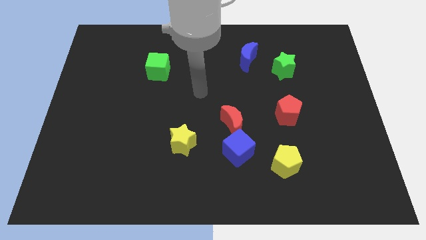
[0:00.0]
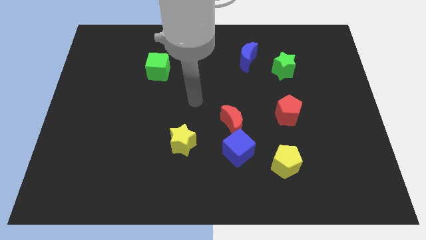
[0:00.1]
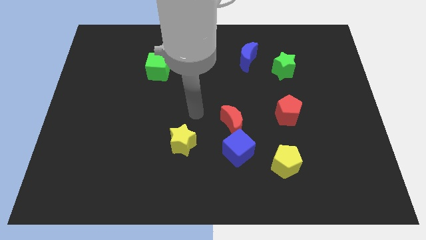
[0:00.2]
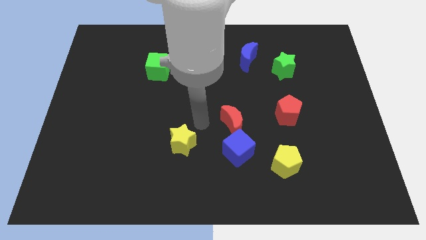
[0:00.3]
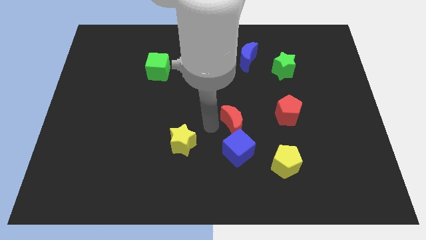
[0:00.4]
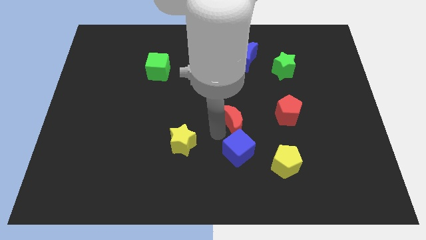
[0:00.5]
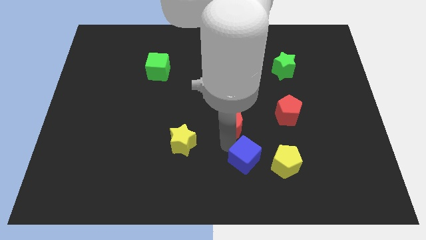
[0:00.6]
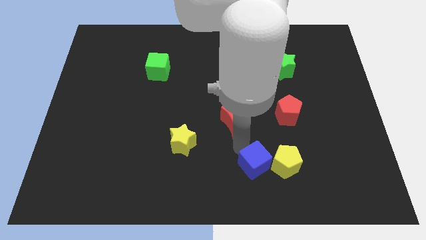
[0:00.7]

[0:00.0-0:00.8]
separate the red moon from the blue cube

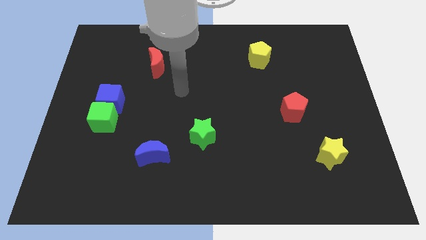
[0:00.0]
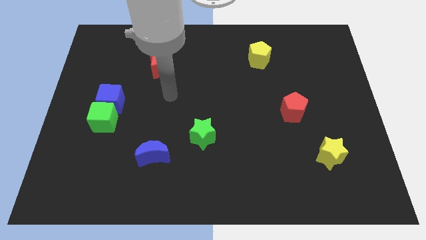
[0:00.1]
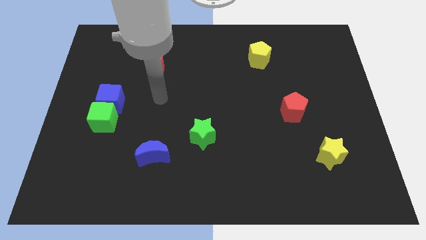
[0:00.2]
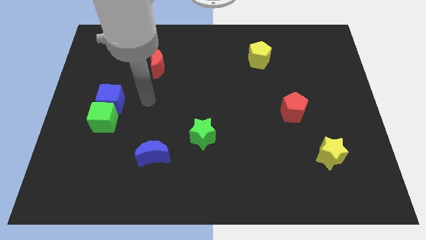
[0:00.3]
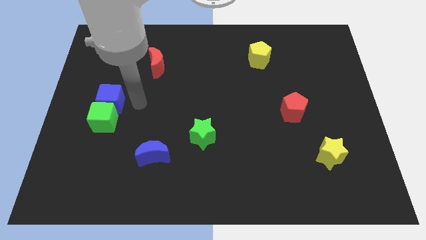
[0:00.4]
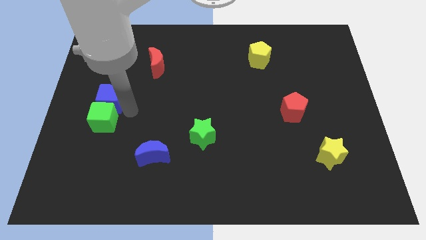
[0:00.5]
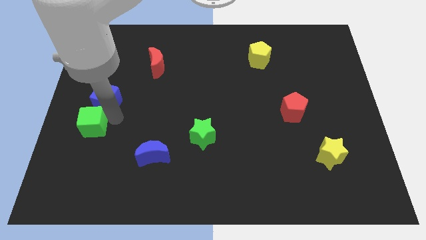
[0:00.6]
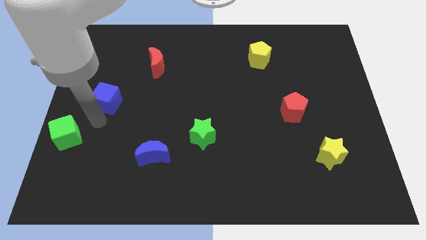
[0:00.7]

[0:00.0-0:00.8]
move the blue cube away from the green cube

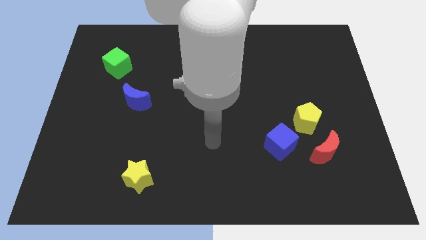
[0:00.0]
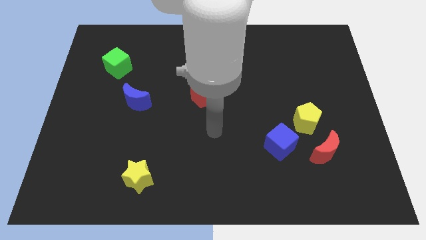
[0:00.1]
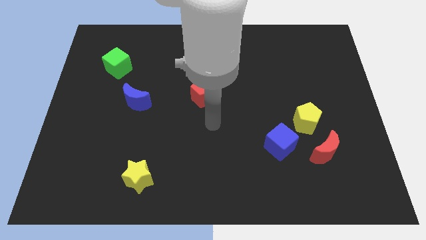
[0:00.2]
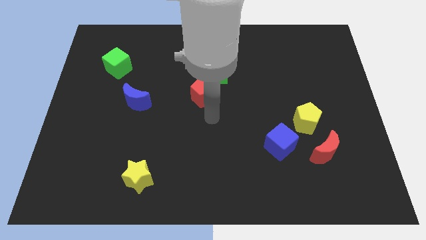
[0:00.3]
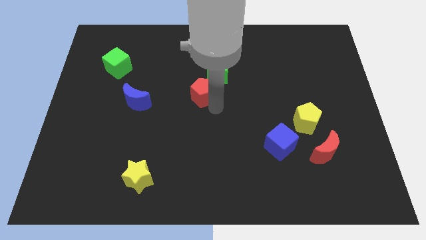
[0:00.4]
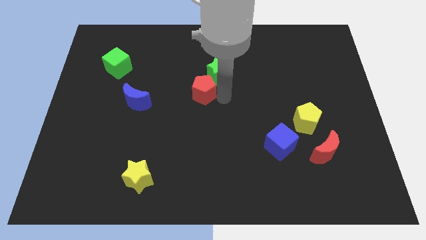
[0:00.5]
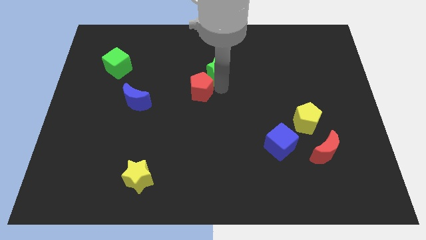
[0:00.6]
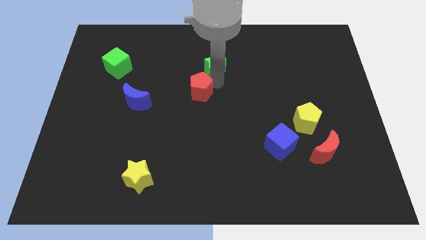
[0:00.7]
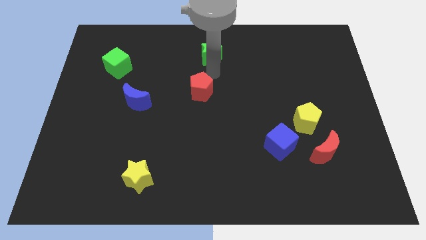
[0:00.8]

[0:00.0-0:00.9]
separate the red pentagon from the green star

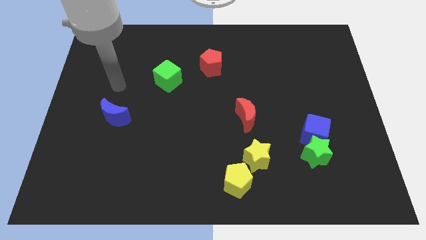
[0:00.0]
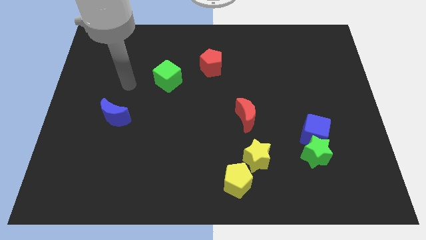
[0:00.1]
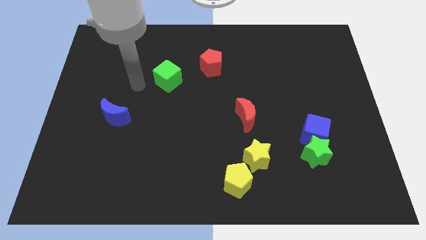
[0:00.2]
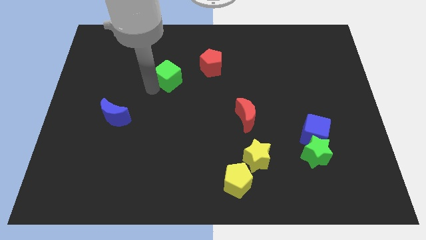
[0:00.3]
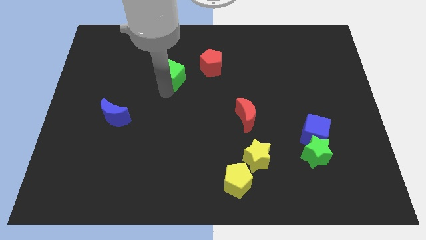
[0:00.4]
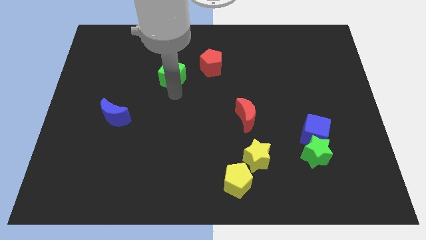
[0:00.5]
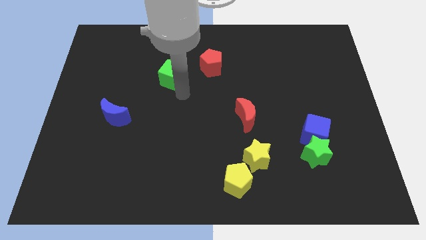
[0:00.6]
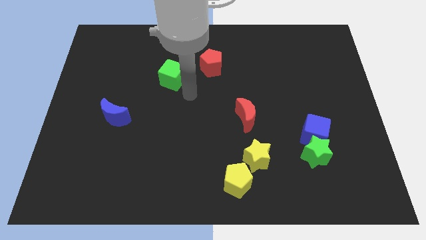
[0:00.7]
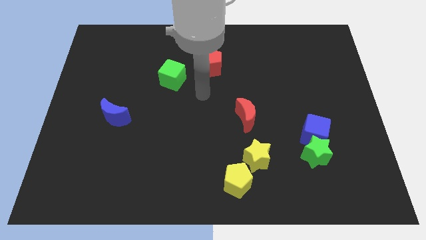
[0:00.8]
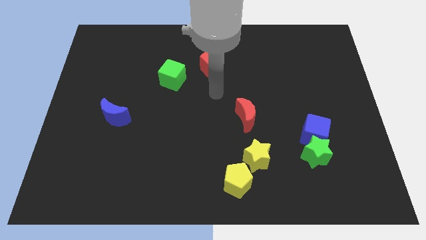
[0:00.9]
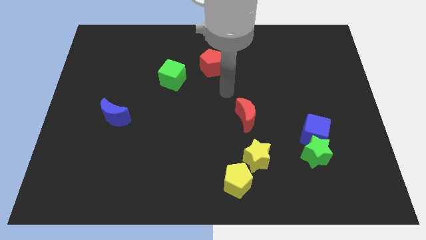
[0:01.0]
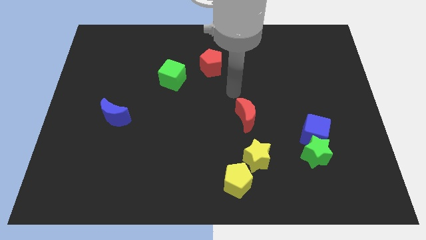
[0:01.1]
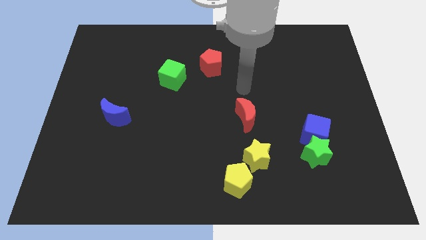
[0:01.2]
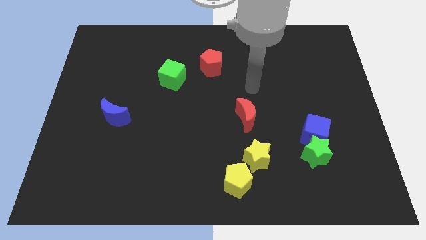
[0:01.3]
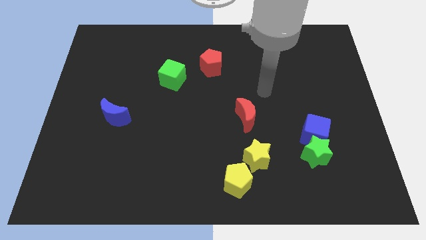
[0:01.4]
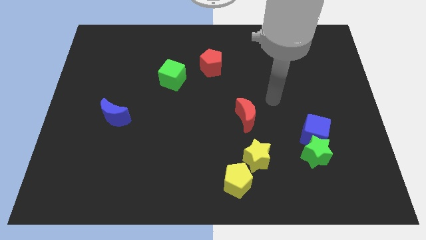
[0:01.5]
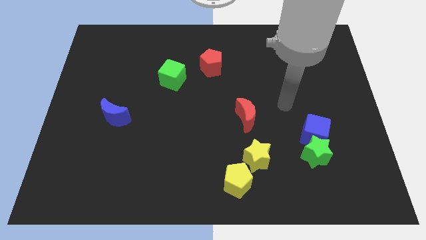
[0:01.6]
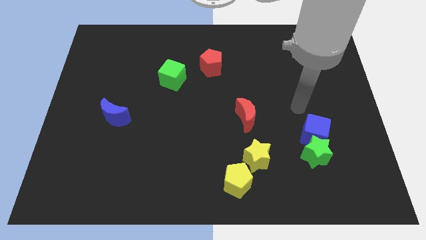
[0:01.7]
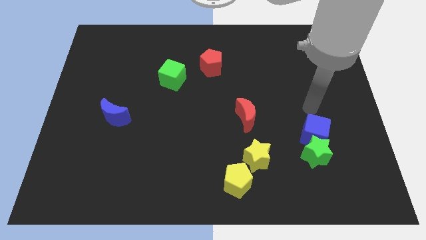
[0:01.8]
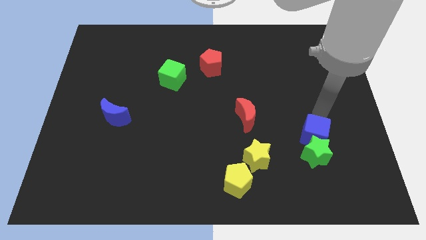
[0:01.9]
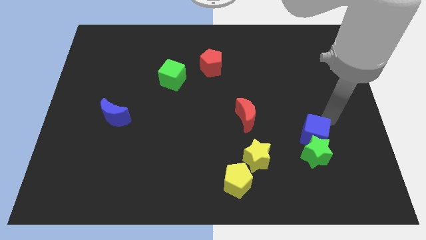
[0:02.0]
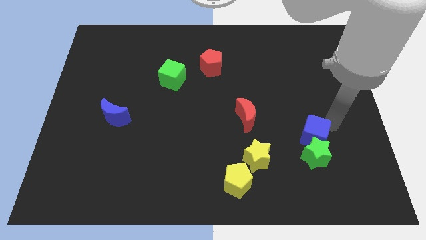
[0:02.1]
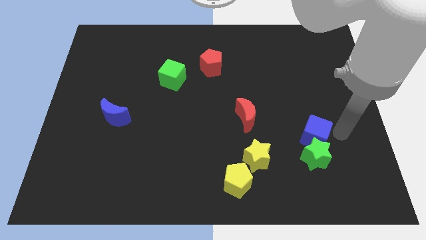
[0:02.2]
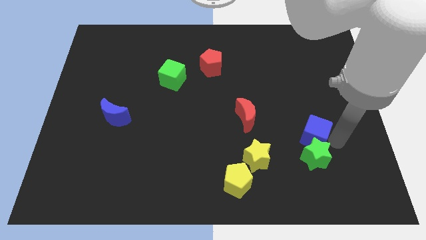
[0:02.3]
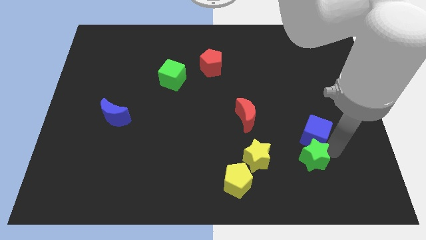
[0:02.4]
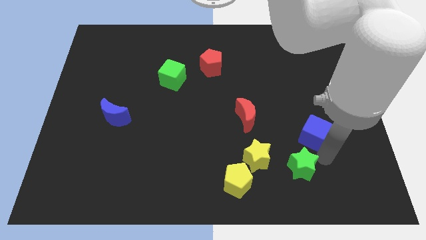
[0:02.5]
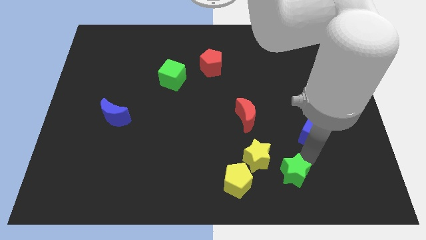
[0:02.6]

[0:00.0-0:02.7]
pull the blue cube apart from the green star

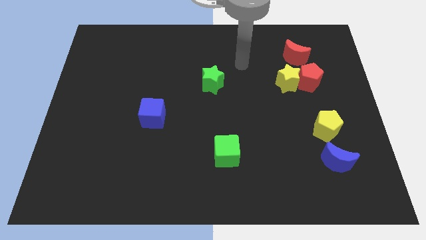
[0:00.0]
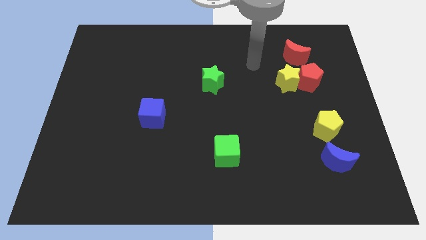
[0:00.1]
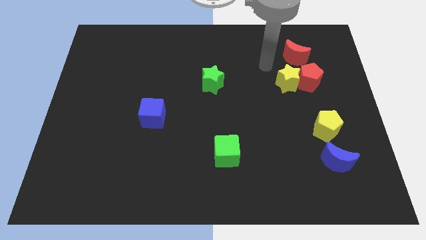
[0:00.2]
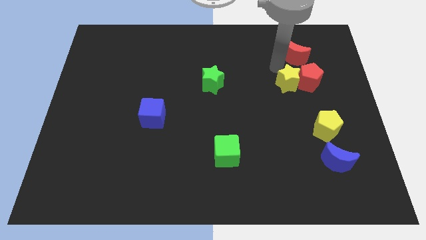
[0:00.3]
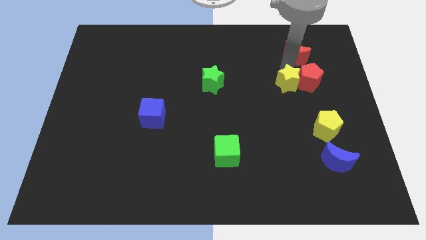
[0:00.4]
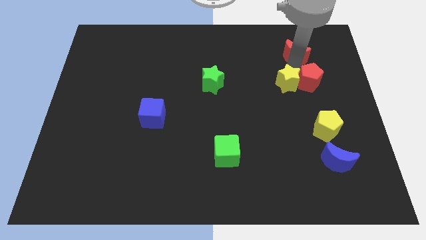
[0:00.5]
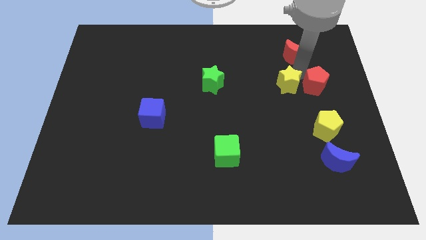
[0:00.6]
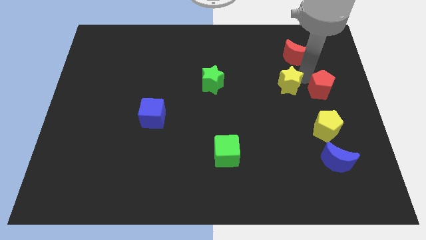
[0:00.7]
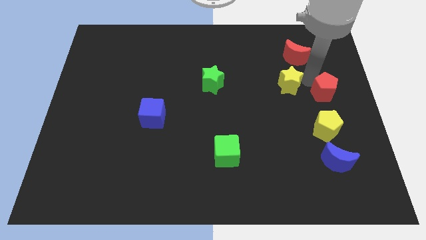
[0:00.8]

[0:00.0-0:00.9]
pull the red pentagon apart from the yellow star and red moon

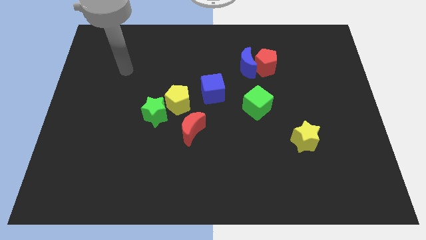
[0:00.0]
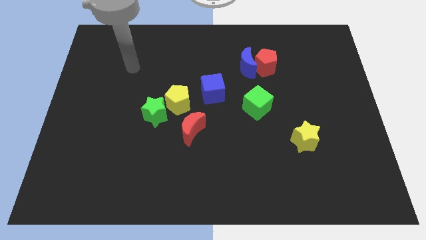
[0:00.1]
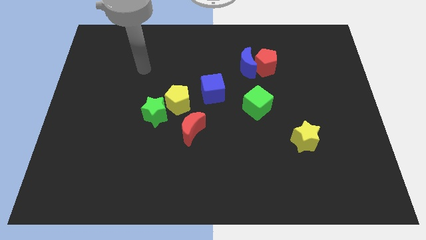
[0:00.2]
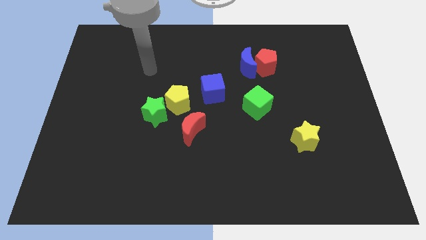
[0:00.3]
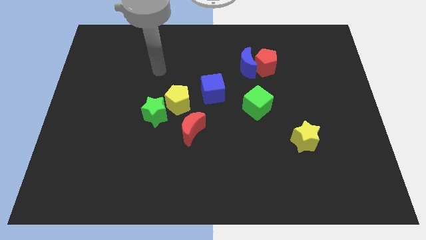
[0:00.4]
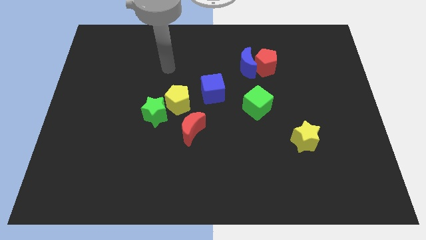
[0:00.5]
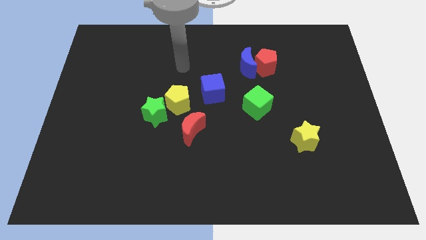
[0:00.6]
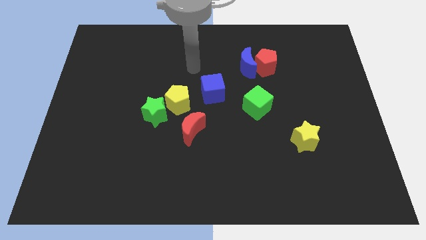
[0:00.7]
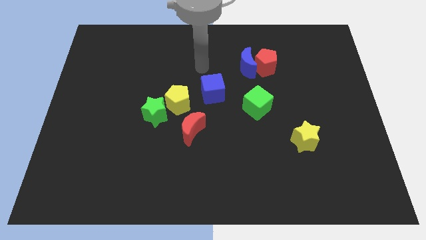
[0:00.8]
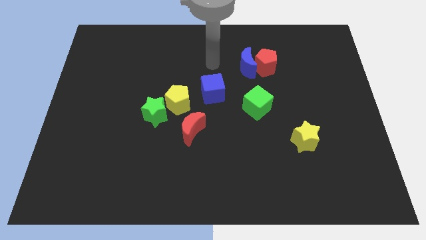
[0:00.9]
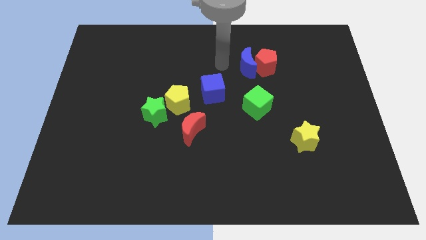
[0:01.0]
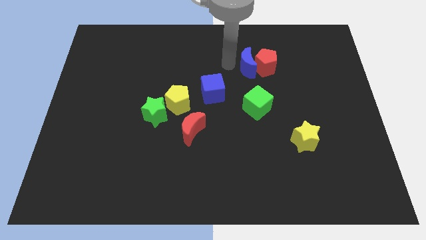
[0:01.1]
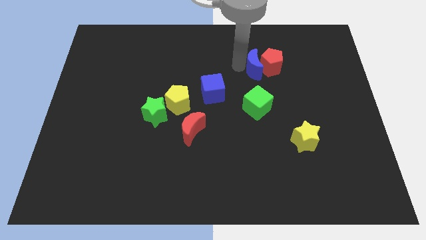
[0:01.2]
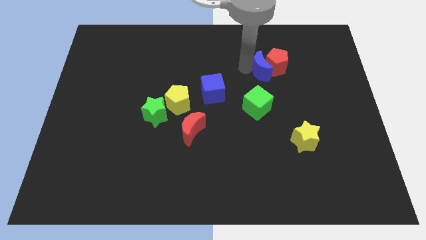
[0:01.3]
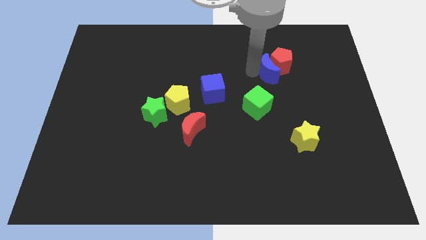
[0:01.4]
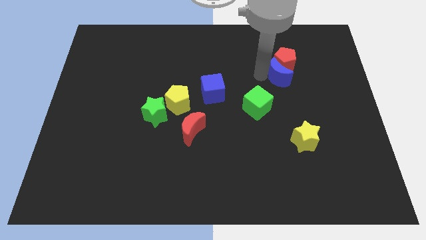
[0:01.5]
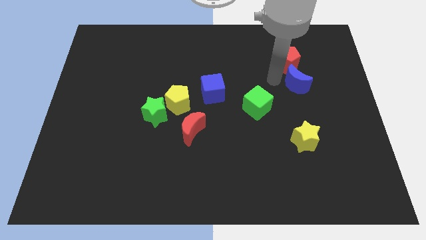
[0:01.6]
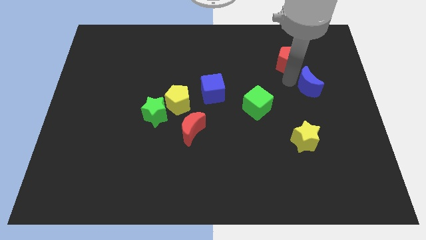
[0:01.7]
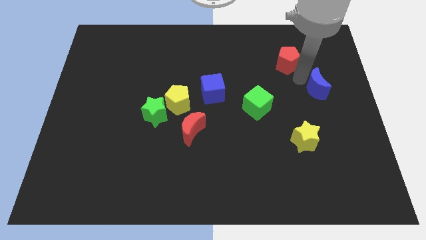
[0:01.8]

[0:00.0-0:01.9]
move the red pentagon away from the blue moon

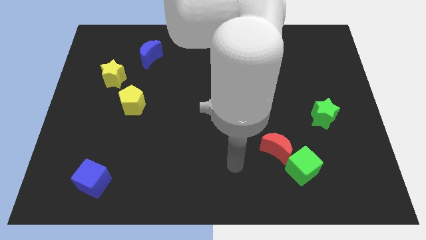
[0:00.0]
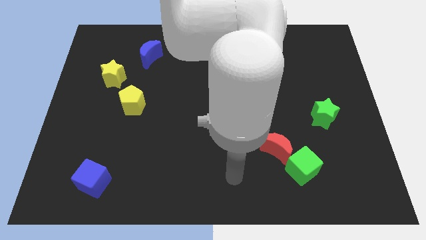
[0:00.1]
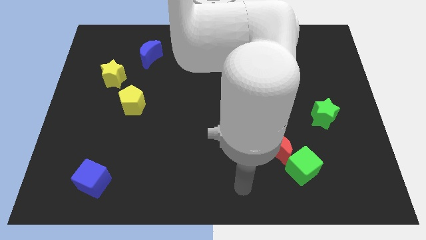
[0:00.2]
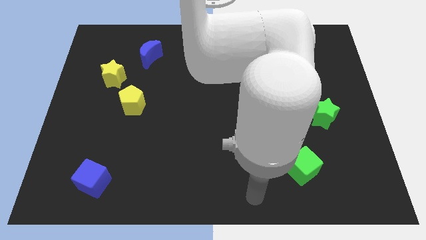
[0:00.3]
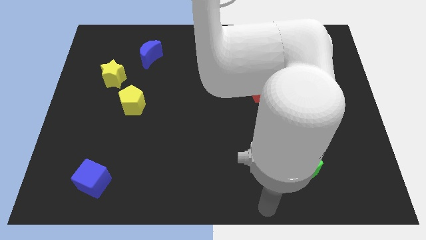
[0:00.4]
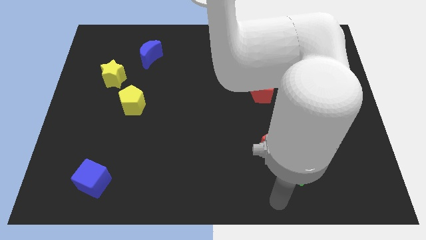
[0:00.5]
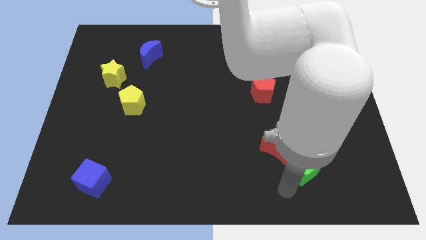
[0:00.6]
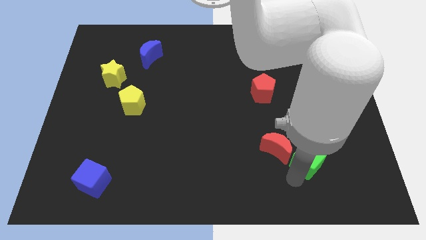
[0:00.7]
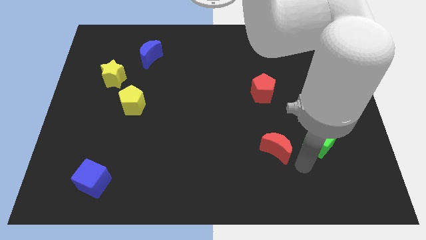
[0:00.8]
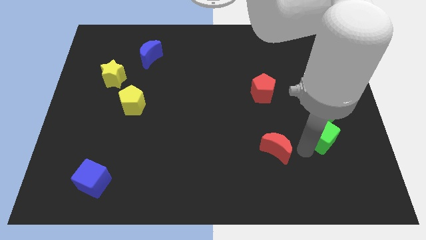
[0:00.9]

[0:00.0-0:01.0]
pull the red moon apart from the green cube

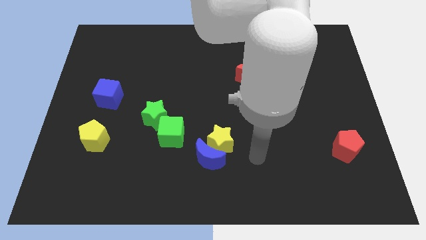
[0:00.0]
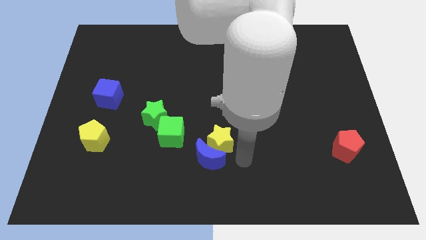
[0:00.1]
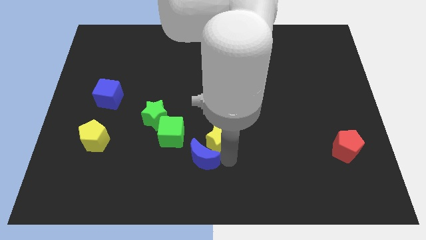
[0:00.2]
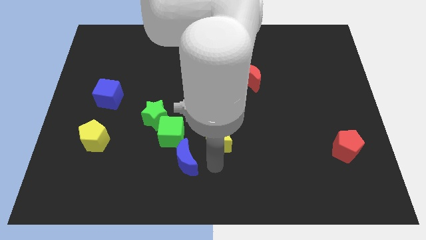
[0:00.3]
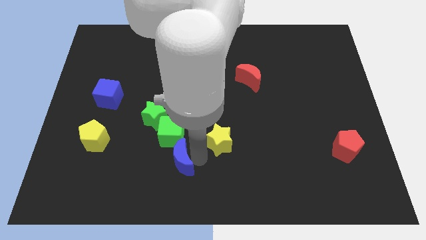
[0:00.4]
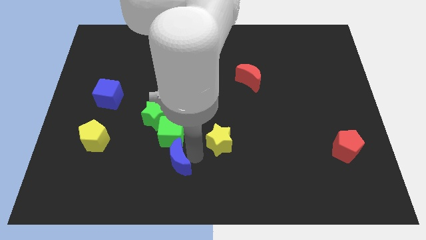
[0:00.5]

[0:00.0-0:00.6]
pull the yellow star apart from the blue moon
